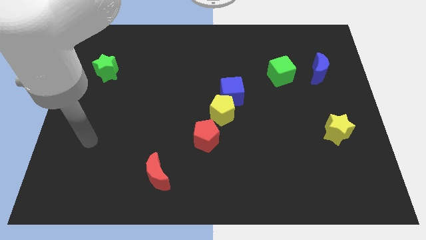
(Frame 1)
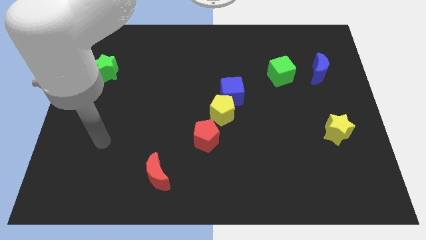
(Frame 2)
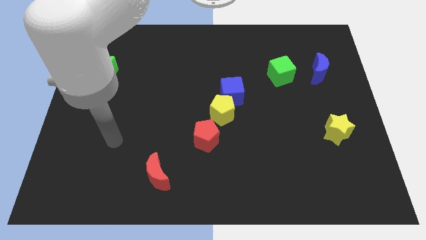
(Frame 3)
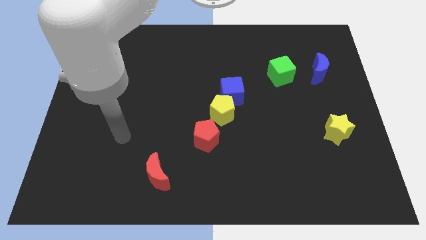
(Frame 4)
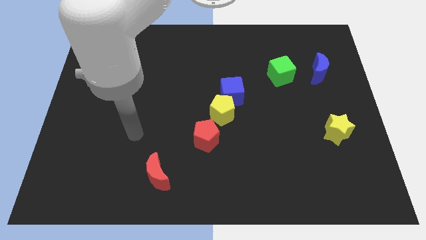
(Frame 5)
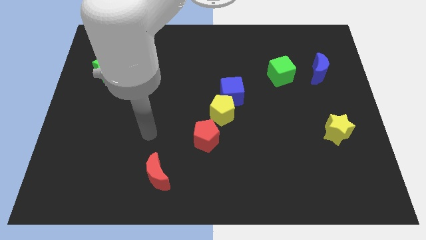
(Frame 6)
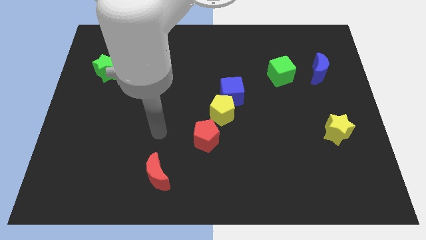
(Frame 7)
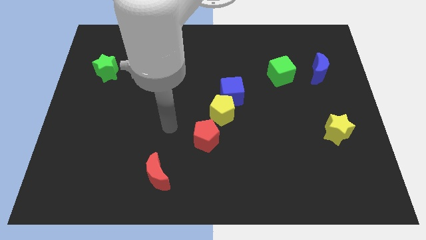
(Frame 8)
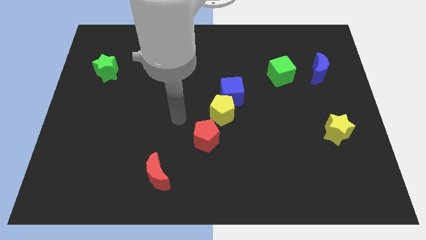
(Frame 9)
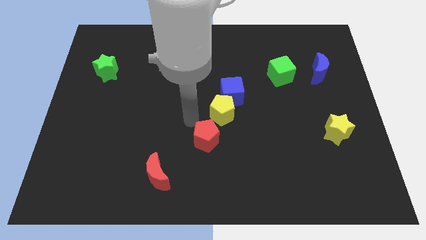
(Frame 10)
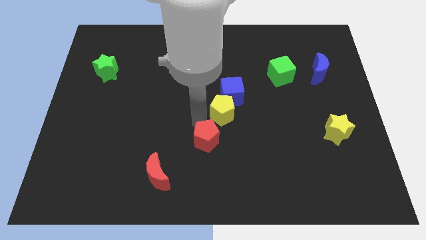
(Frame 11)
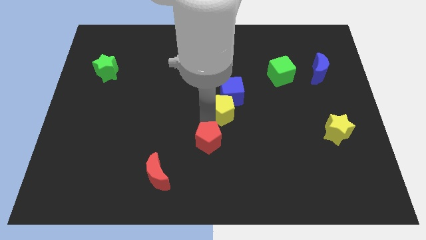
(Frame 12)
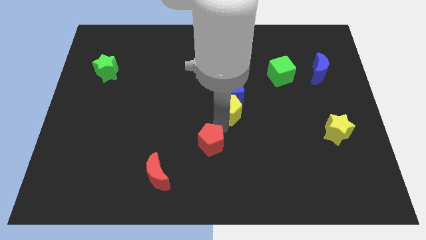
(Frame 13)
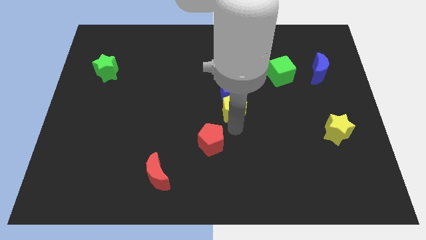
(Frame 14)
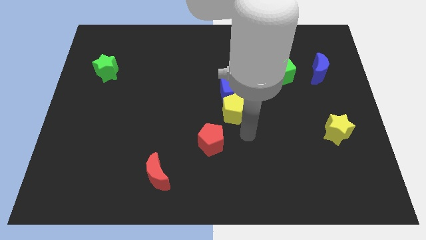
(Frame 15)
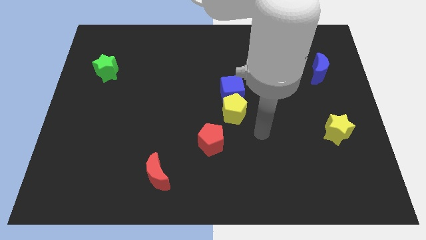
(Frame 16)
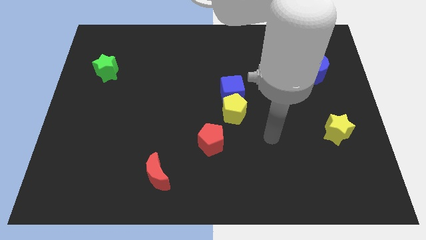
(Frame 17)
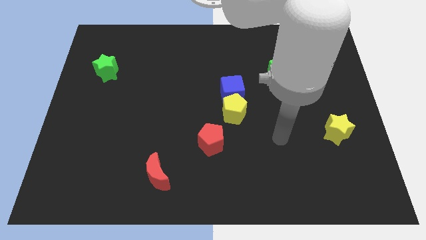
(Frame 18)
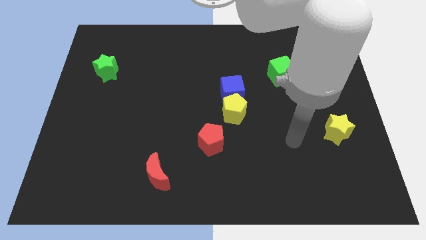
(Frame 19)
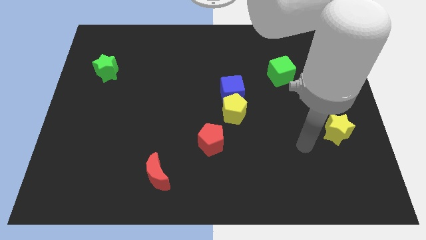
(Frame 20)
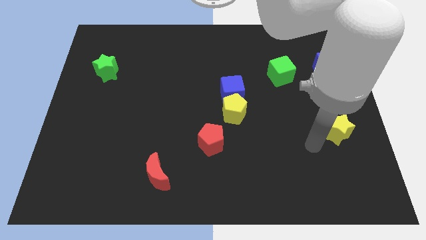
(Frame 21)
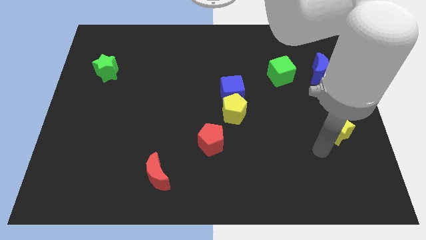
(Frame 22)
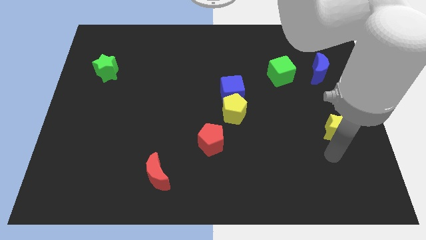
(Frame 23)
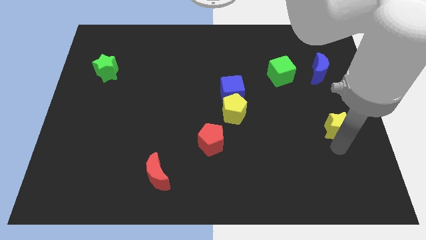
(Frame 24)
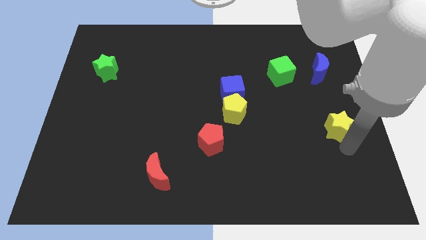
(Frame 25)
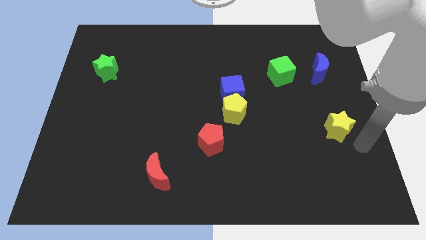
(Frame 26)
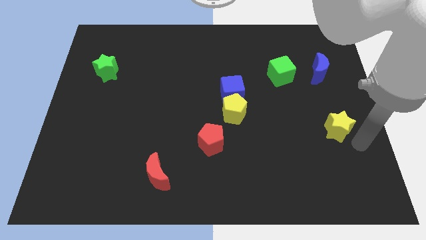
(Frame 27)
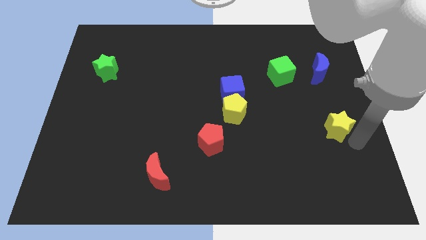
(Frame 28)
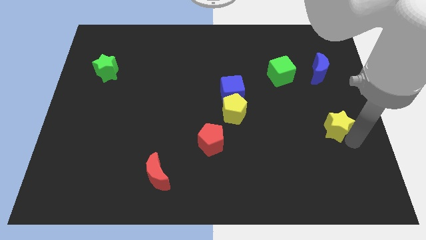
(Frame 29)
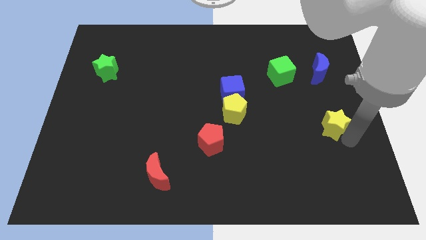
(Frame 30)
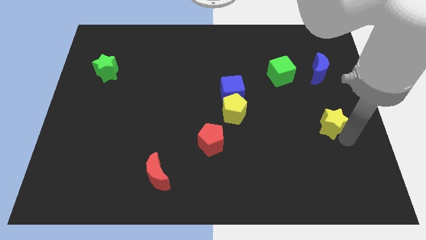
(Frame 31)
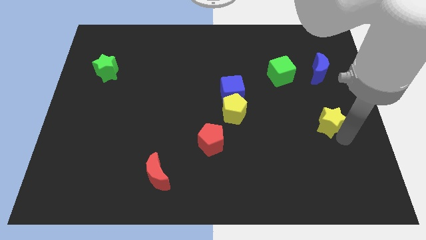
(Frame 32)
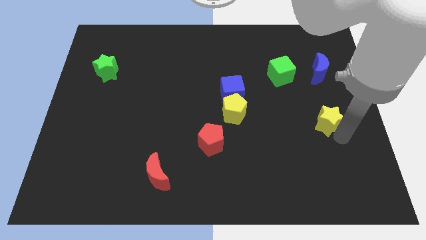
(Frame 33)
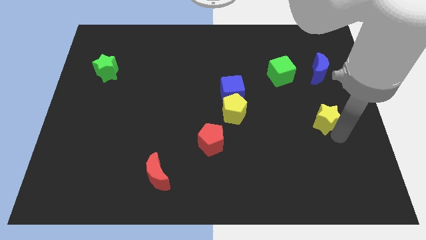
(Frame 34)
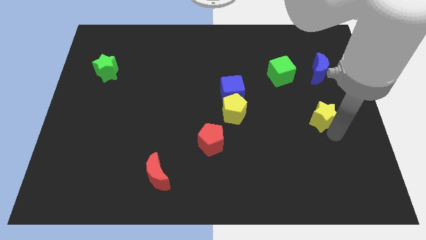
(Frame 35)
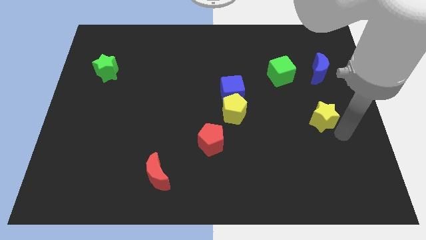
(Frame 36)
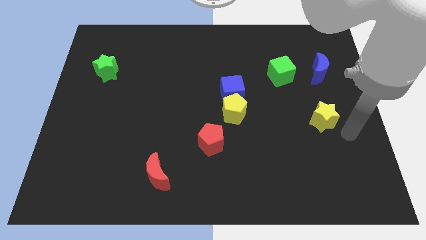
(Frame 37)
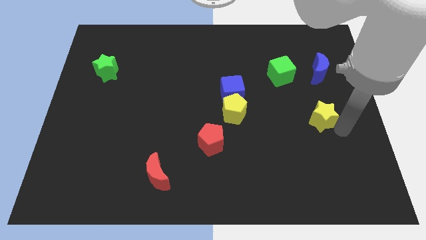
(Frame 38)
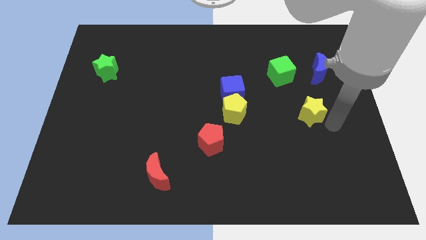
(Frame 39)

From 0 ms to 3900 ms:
slightly slide the yellow star diagonally upwards and left

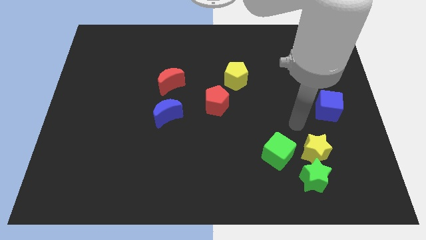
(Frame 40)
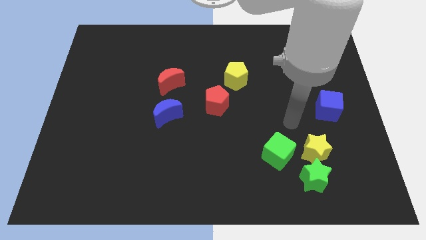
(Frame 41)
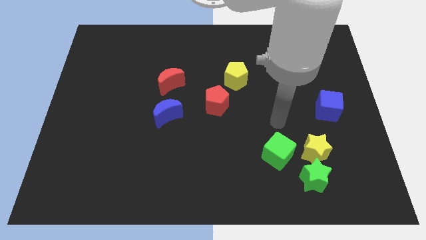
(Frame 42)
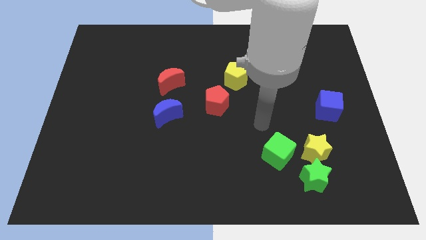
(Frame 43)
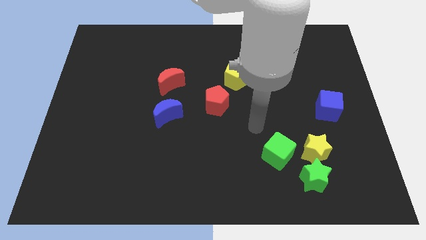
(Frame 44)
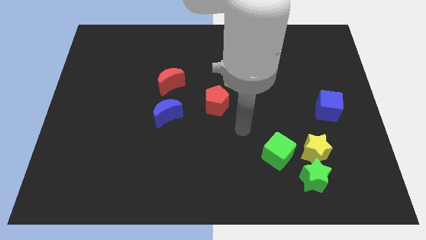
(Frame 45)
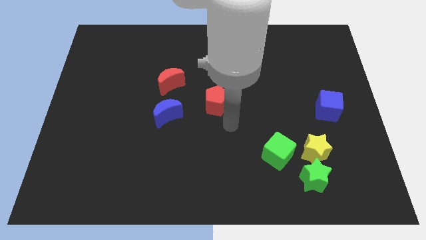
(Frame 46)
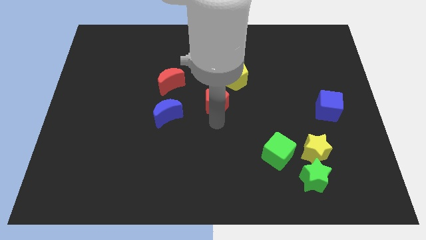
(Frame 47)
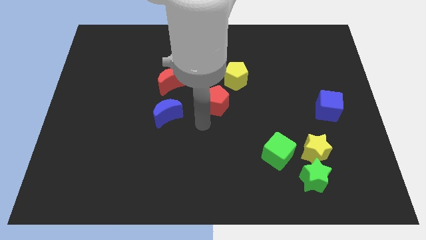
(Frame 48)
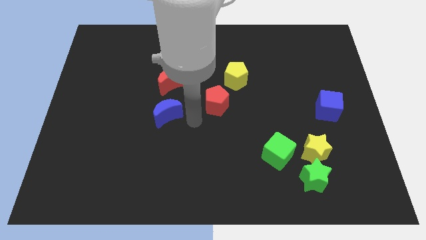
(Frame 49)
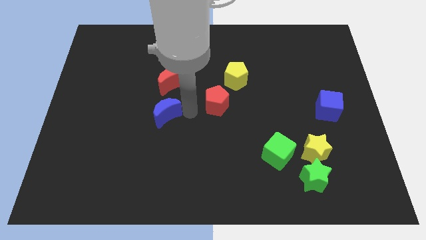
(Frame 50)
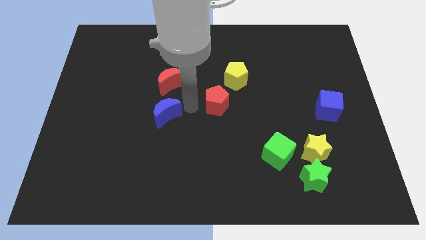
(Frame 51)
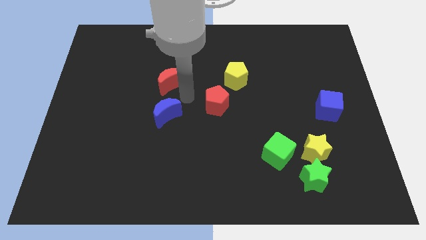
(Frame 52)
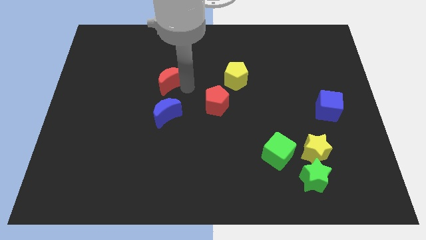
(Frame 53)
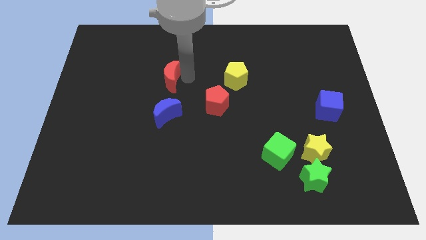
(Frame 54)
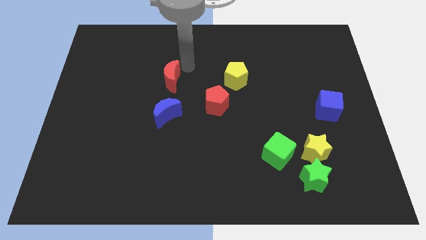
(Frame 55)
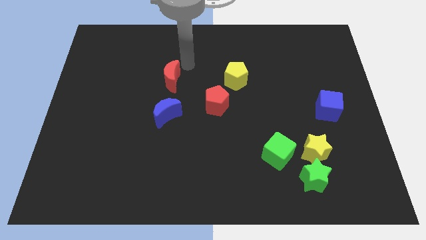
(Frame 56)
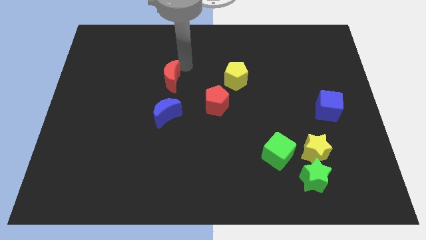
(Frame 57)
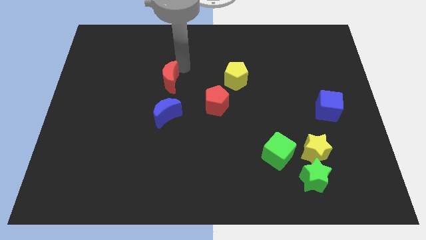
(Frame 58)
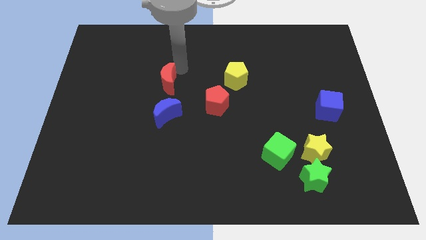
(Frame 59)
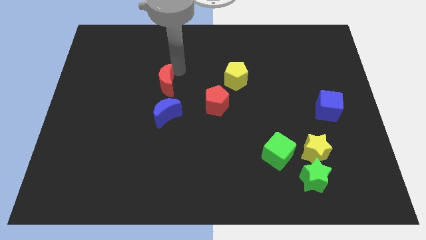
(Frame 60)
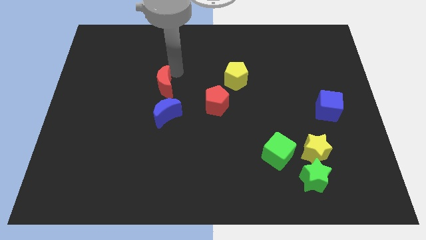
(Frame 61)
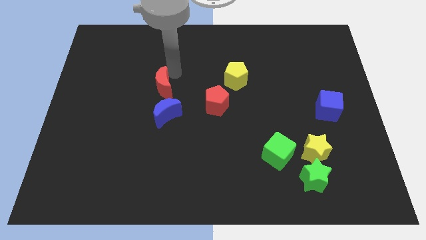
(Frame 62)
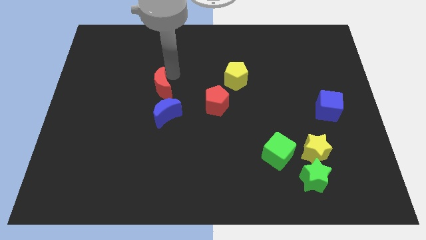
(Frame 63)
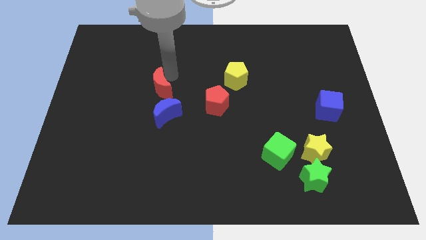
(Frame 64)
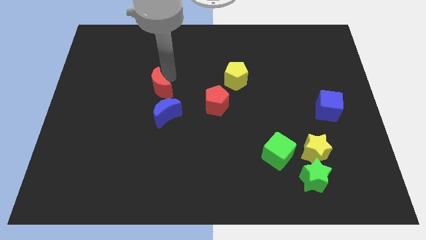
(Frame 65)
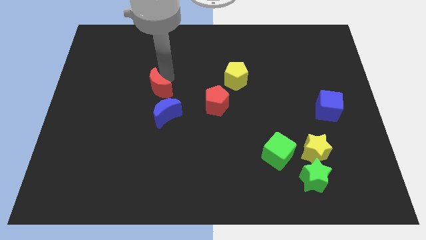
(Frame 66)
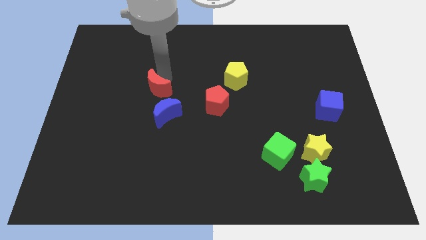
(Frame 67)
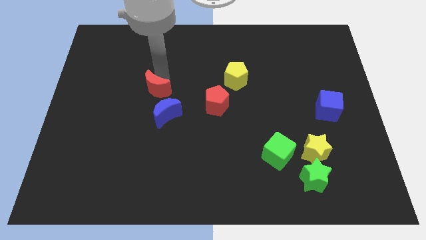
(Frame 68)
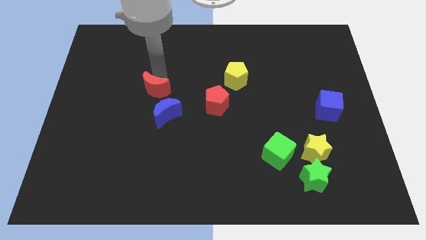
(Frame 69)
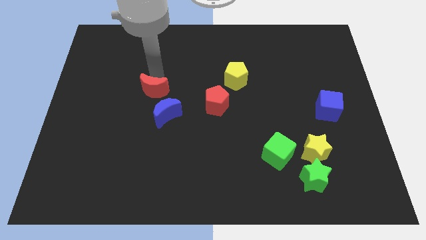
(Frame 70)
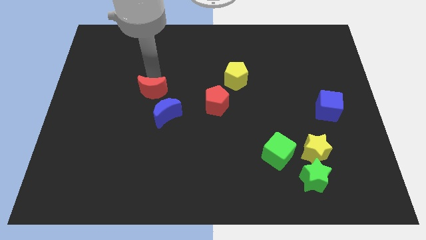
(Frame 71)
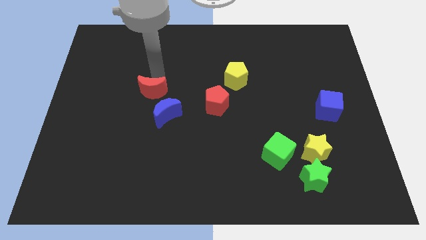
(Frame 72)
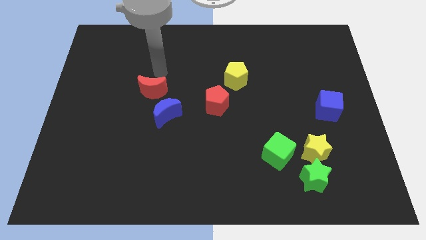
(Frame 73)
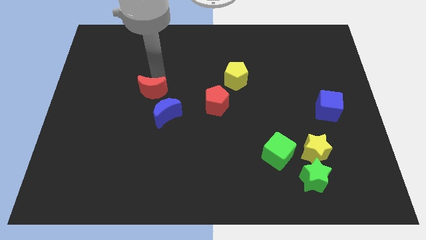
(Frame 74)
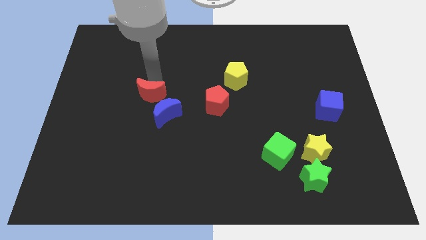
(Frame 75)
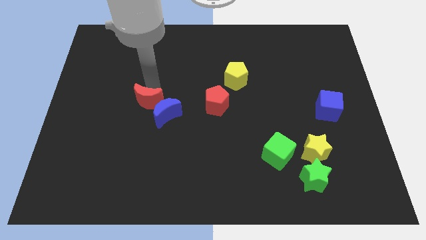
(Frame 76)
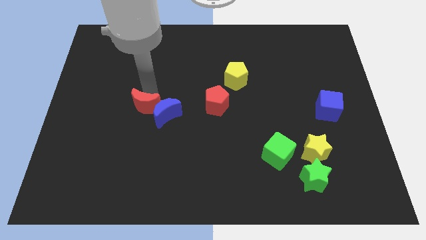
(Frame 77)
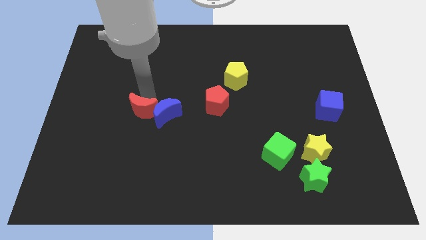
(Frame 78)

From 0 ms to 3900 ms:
slide the red moon slightly down

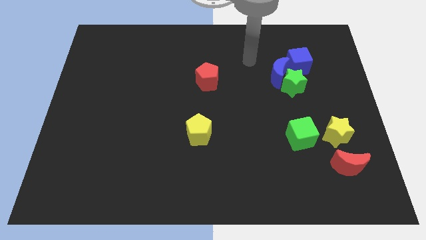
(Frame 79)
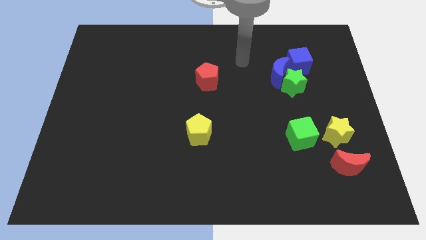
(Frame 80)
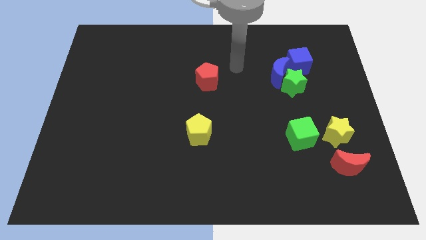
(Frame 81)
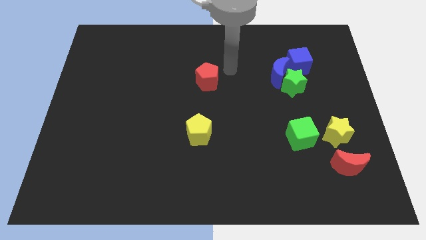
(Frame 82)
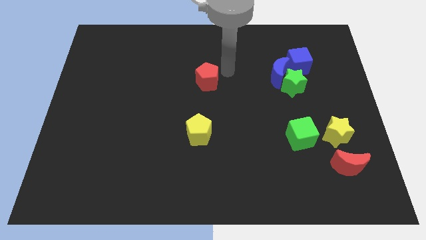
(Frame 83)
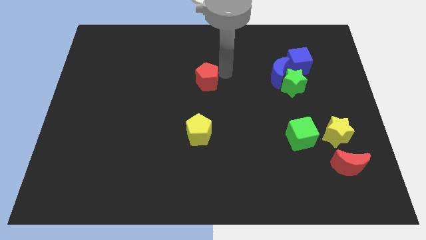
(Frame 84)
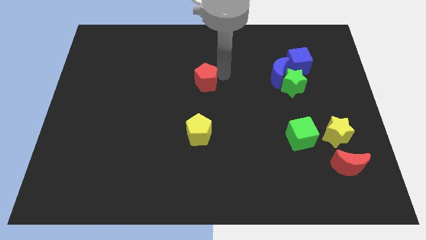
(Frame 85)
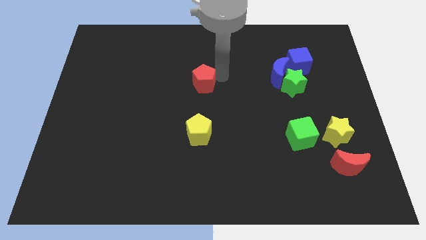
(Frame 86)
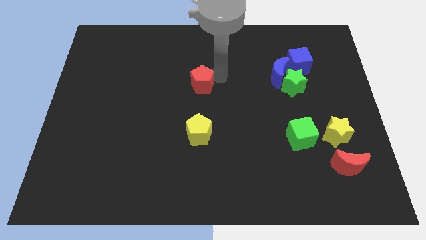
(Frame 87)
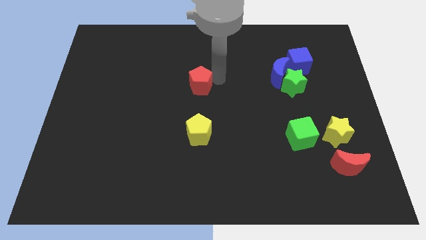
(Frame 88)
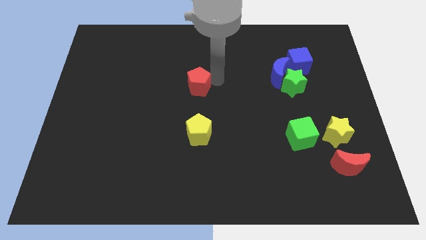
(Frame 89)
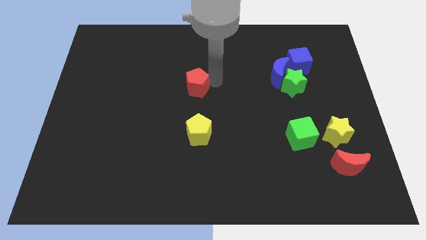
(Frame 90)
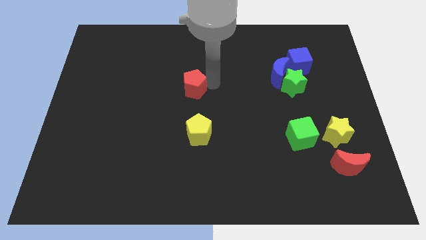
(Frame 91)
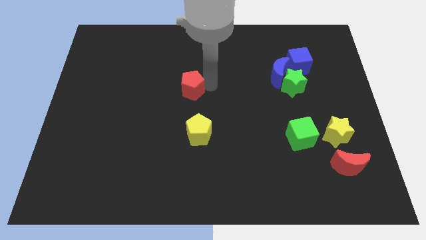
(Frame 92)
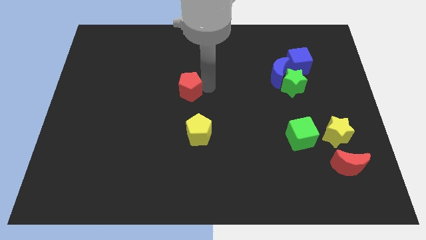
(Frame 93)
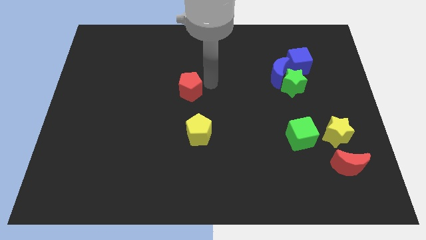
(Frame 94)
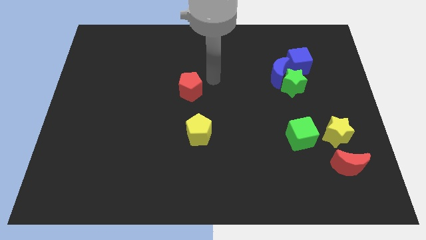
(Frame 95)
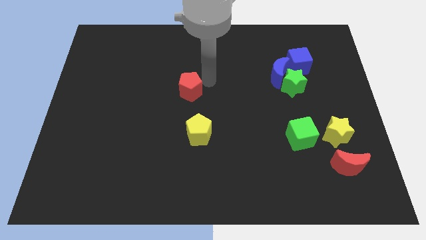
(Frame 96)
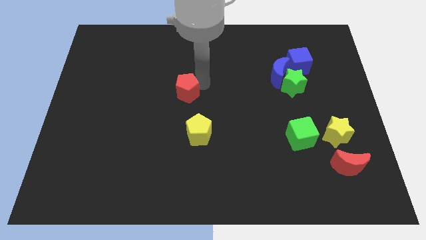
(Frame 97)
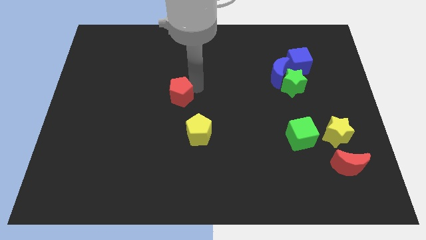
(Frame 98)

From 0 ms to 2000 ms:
slide the red pentagon a bit diagonally downwards and left
